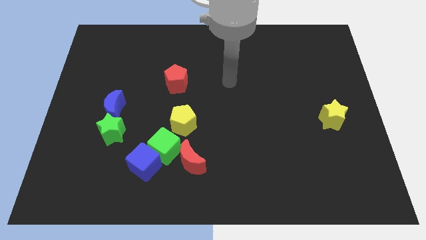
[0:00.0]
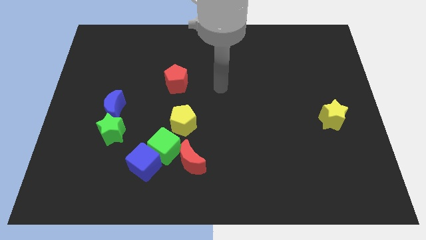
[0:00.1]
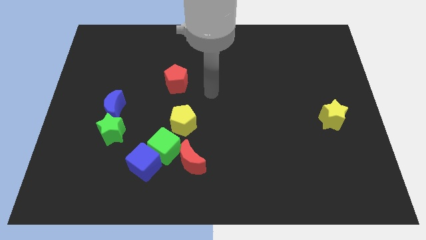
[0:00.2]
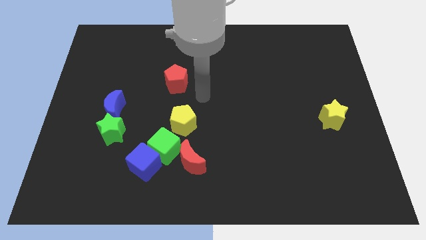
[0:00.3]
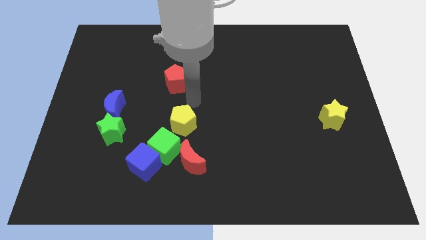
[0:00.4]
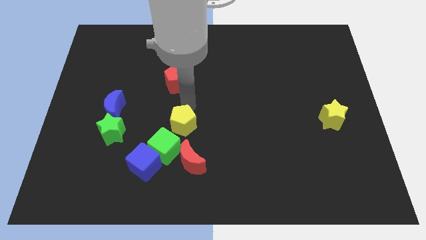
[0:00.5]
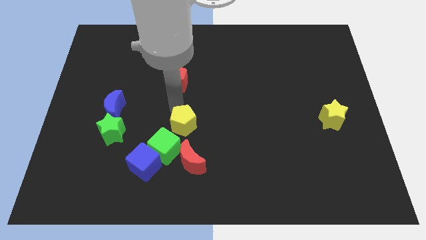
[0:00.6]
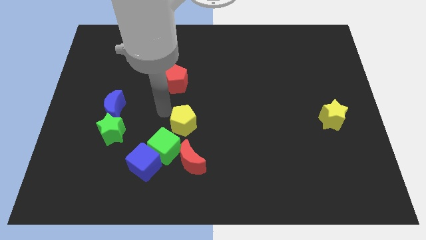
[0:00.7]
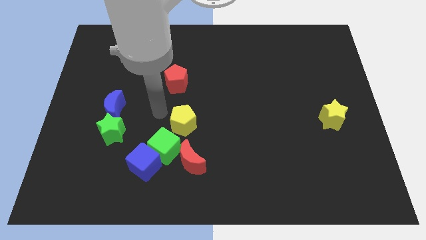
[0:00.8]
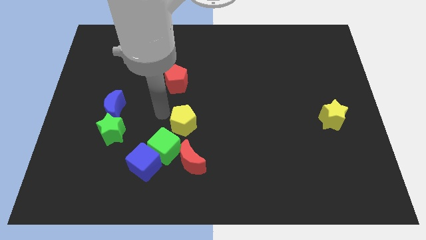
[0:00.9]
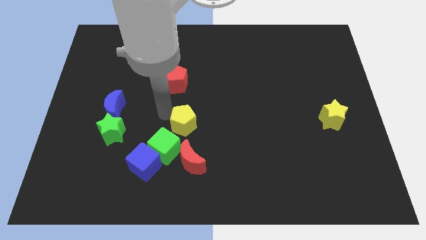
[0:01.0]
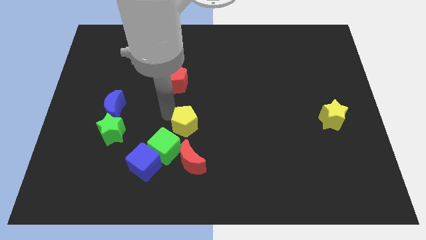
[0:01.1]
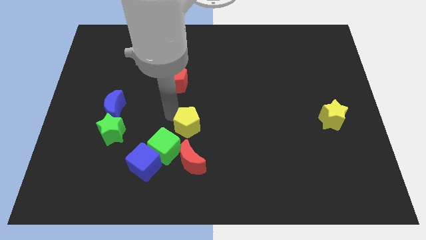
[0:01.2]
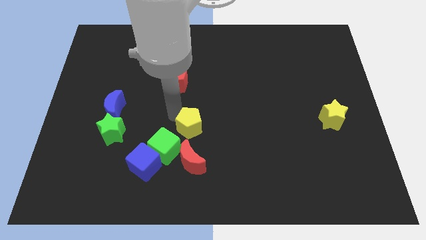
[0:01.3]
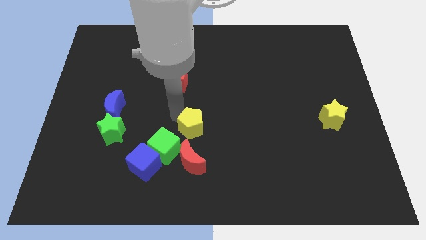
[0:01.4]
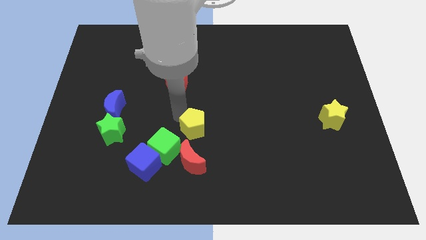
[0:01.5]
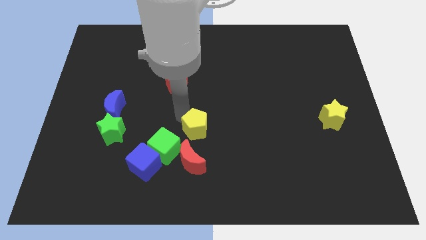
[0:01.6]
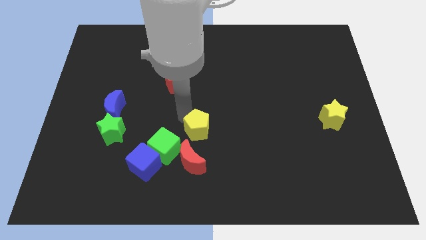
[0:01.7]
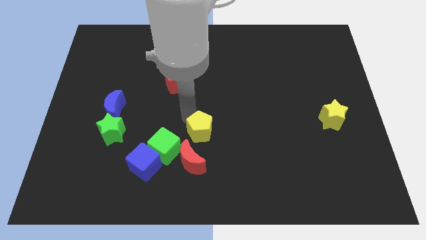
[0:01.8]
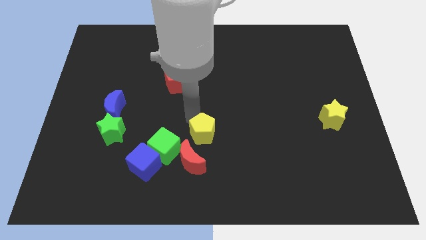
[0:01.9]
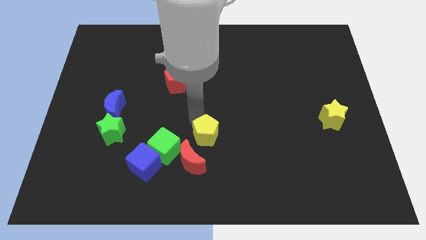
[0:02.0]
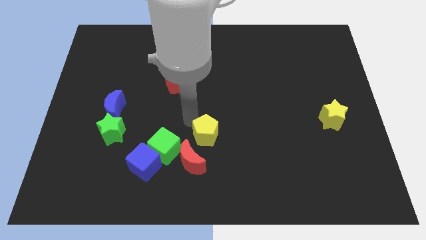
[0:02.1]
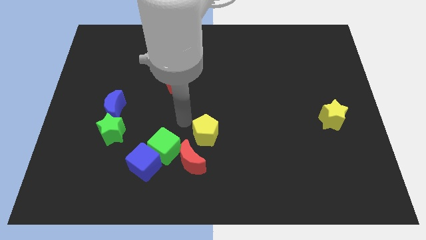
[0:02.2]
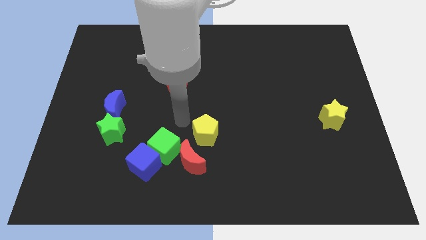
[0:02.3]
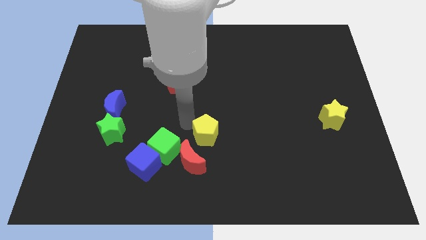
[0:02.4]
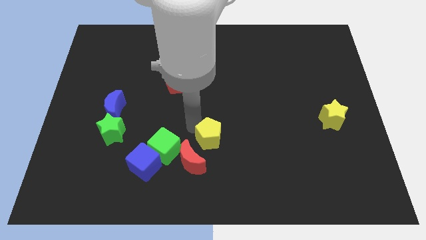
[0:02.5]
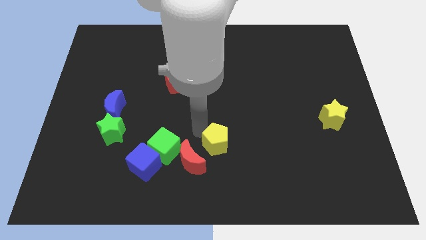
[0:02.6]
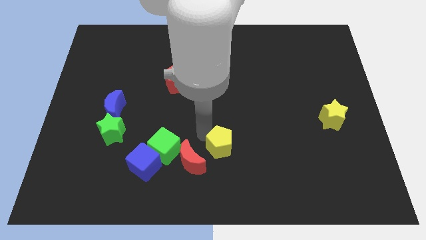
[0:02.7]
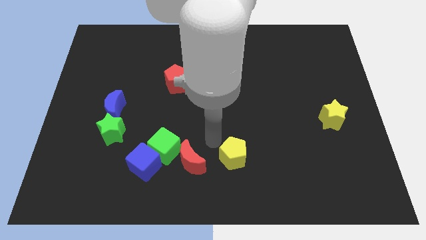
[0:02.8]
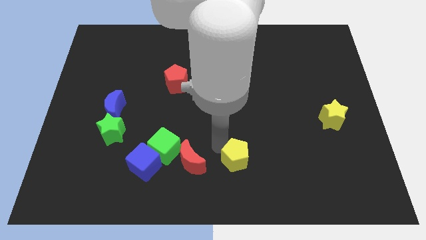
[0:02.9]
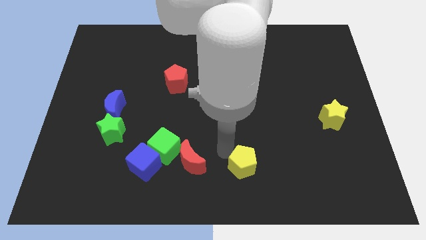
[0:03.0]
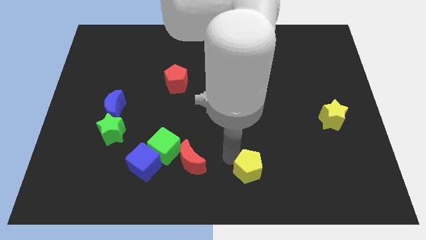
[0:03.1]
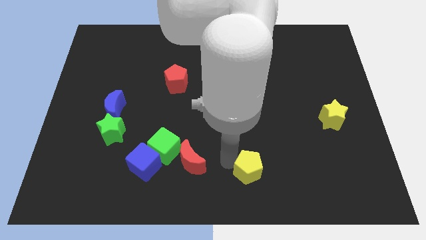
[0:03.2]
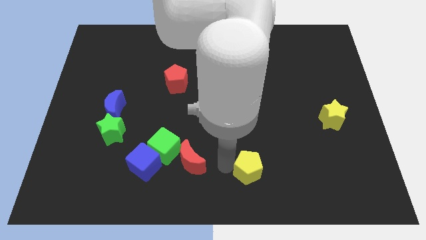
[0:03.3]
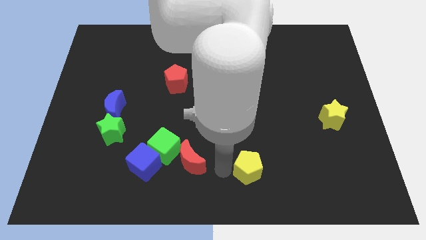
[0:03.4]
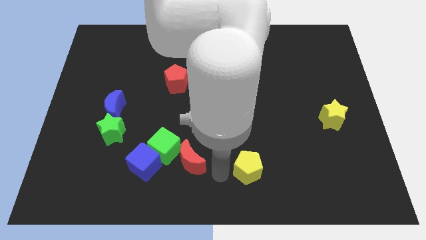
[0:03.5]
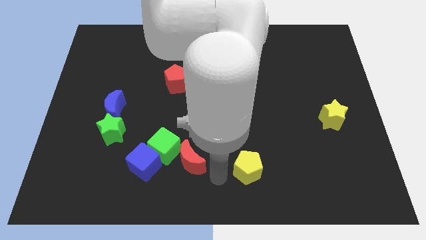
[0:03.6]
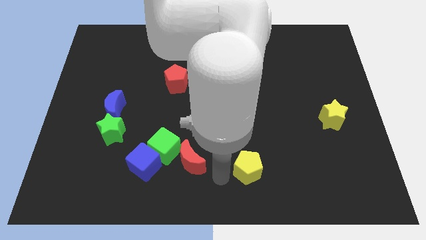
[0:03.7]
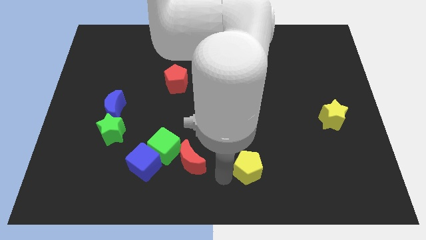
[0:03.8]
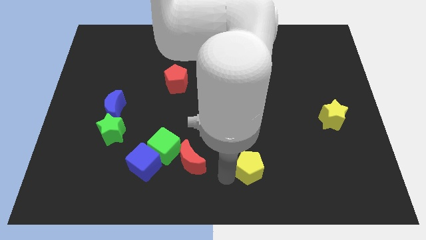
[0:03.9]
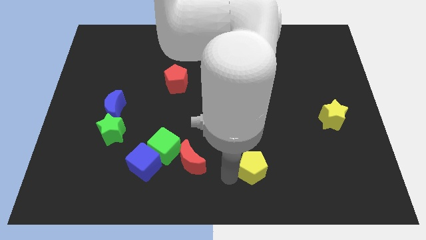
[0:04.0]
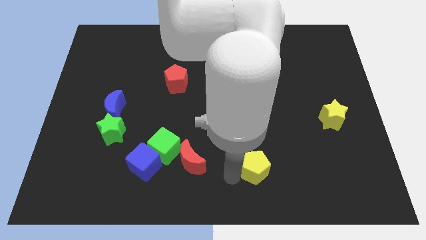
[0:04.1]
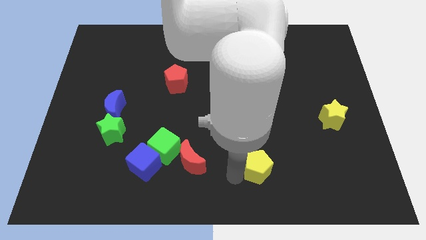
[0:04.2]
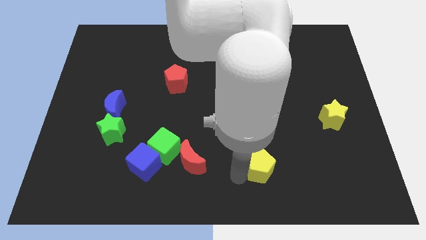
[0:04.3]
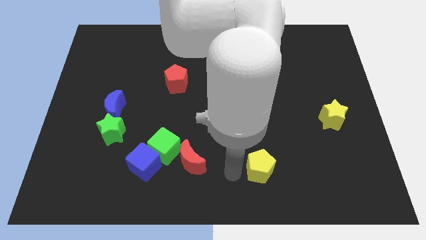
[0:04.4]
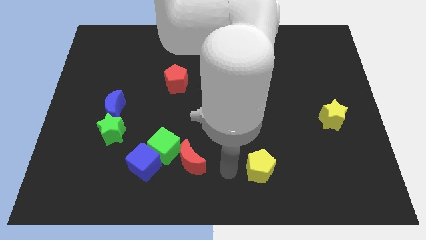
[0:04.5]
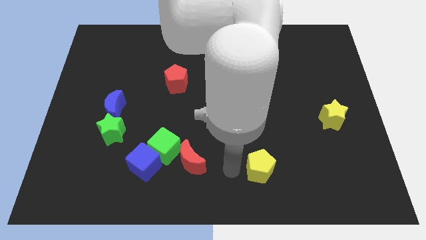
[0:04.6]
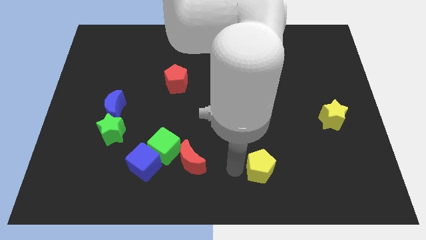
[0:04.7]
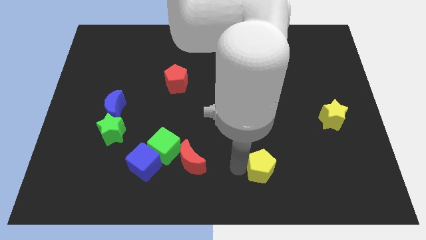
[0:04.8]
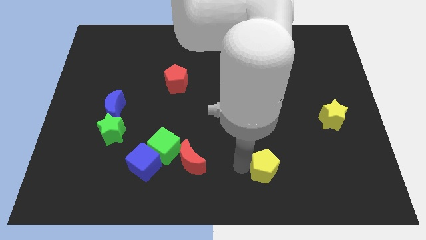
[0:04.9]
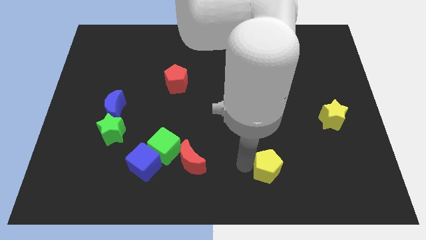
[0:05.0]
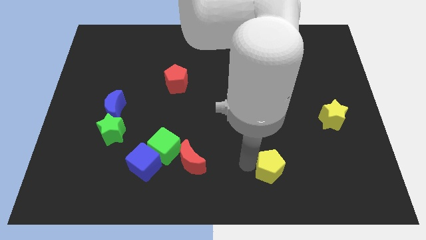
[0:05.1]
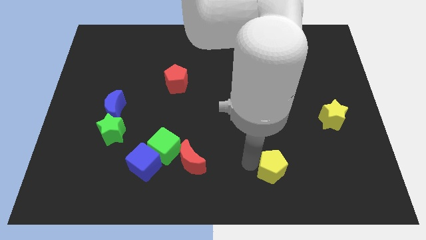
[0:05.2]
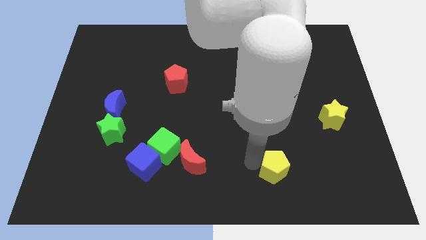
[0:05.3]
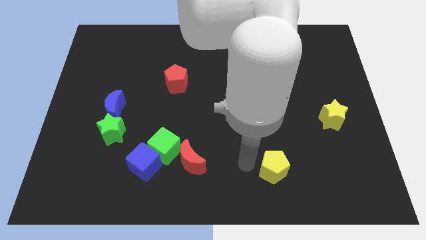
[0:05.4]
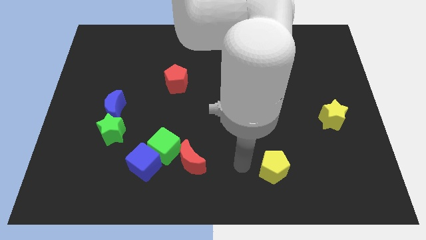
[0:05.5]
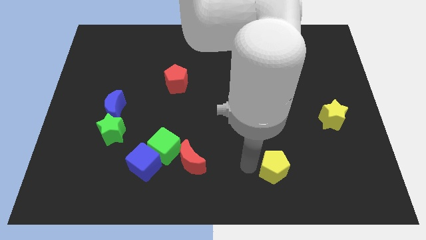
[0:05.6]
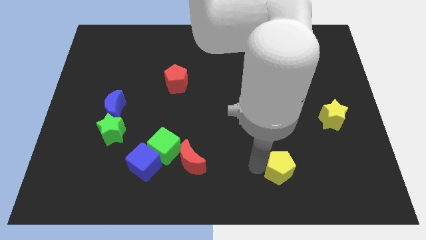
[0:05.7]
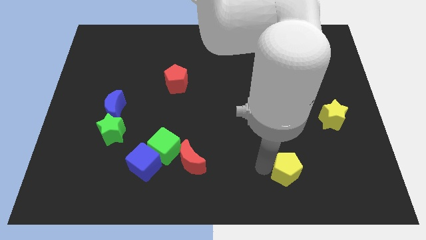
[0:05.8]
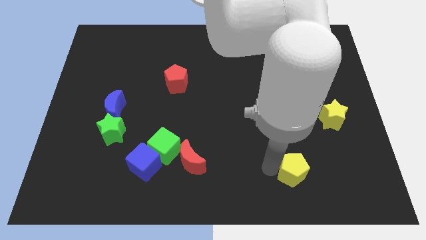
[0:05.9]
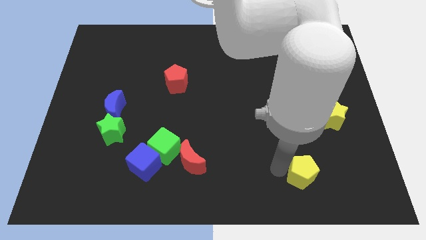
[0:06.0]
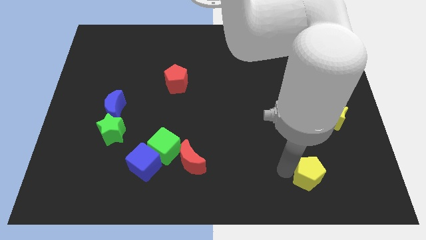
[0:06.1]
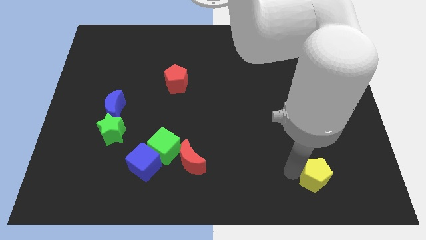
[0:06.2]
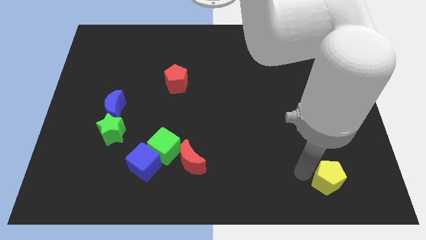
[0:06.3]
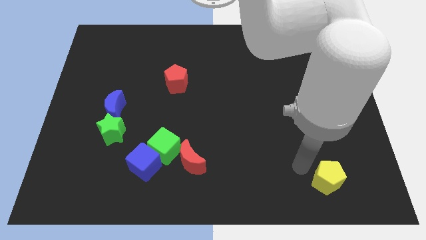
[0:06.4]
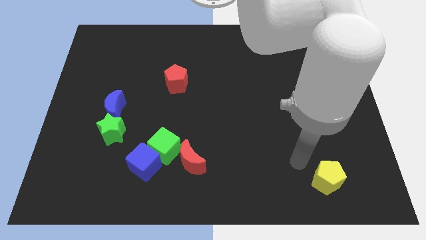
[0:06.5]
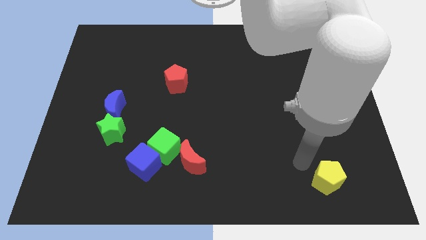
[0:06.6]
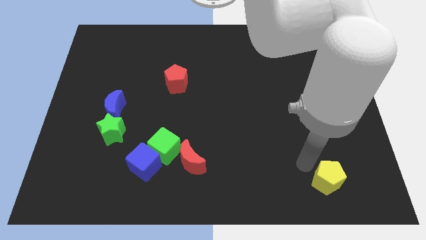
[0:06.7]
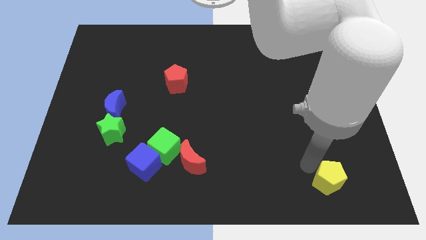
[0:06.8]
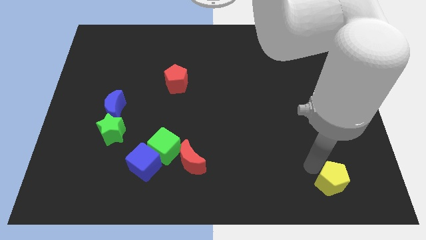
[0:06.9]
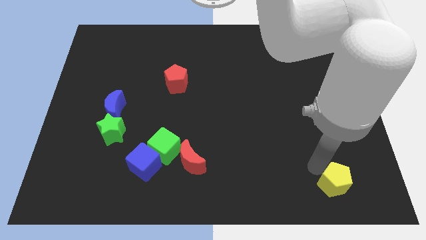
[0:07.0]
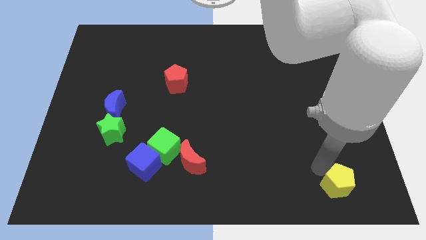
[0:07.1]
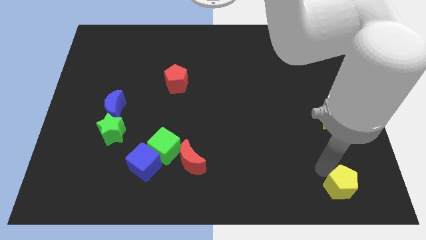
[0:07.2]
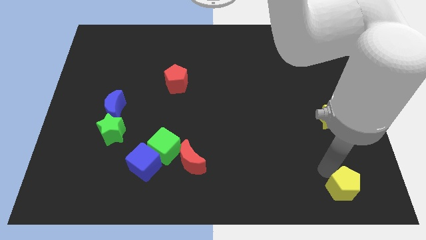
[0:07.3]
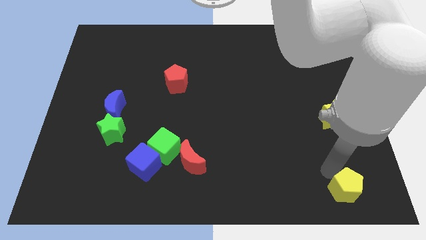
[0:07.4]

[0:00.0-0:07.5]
move the yellow pentagon to the bottom right
